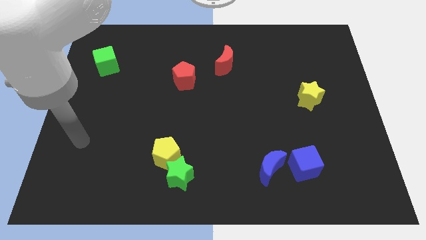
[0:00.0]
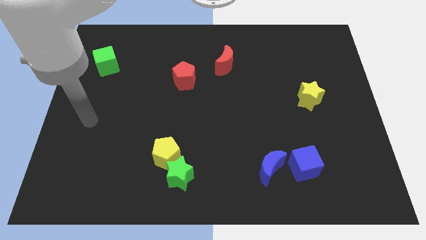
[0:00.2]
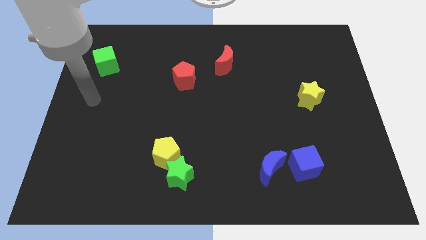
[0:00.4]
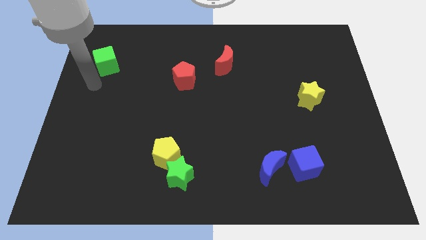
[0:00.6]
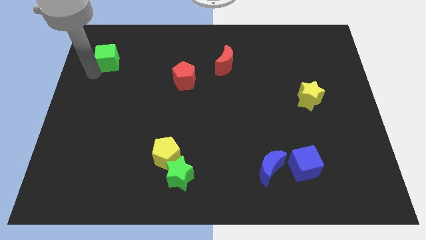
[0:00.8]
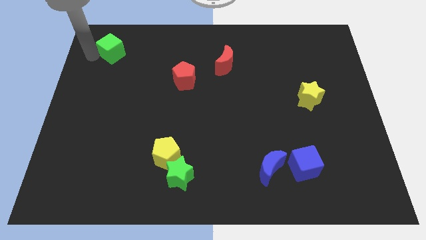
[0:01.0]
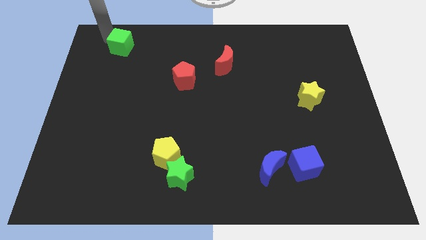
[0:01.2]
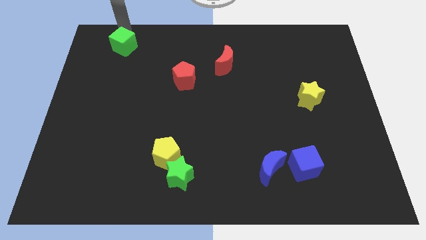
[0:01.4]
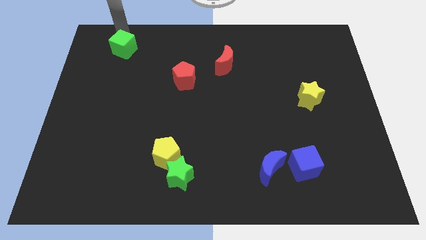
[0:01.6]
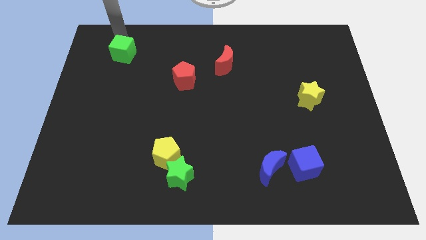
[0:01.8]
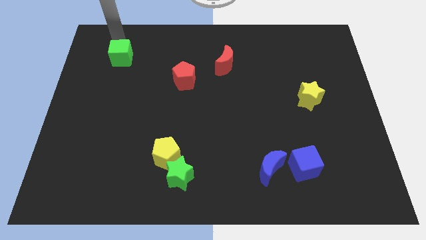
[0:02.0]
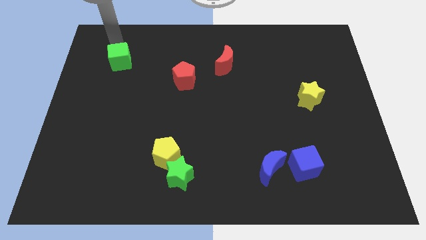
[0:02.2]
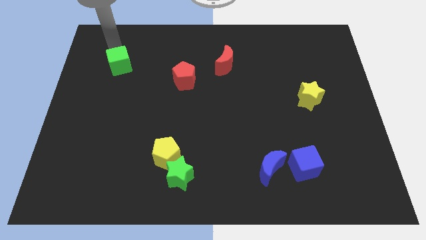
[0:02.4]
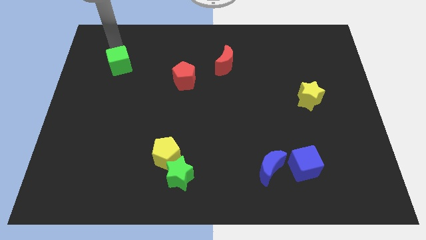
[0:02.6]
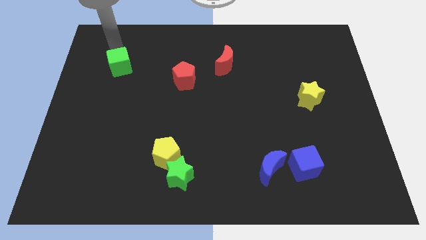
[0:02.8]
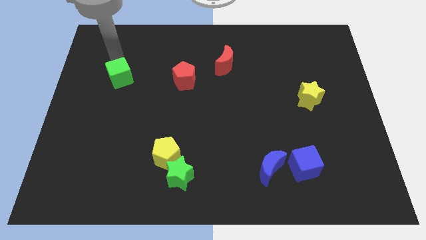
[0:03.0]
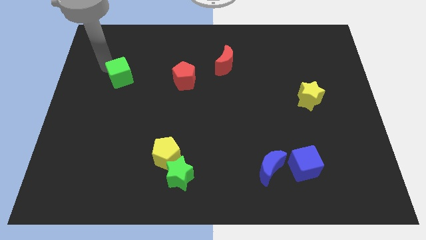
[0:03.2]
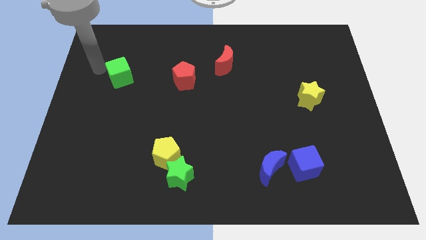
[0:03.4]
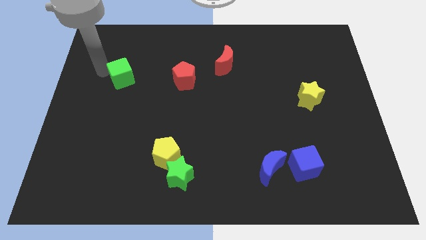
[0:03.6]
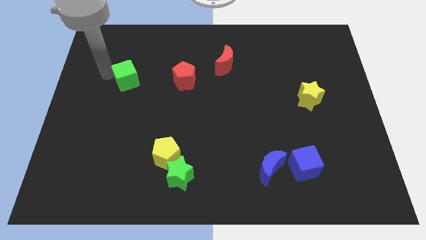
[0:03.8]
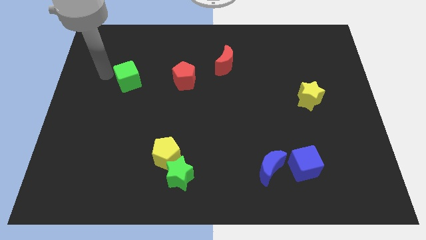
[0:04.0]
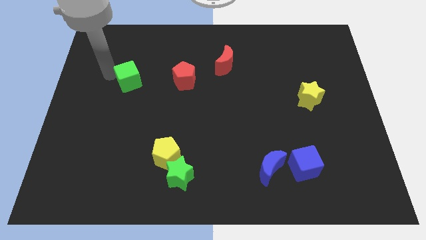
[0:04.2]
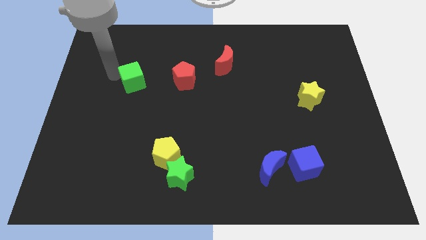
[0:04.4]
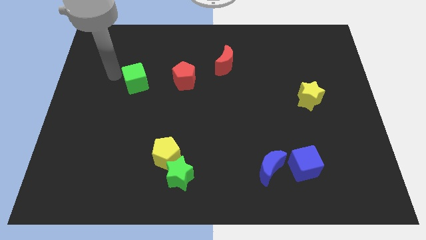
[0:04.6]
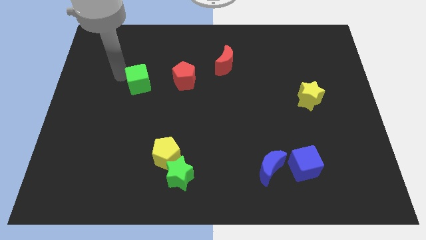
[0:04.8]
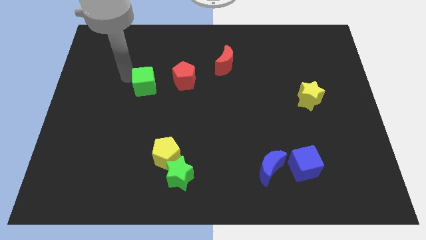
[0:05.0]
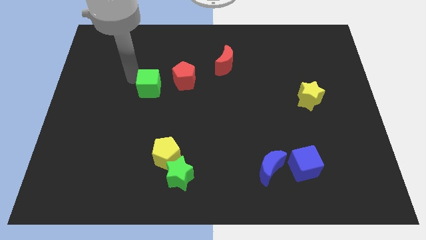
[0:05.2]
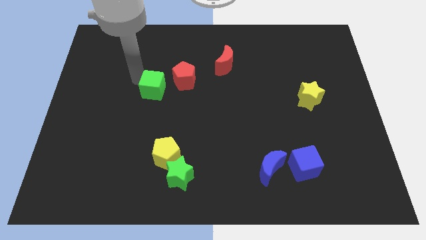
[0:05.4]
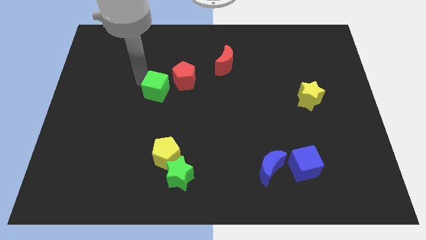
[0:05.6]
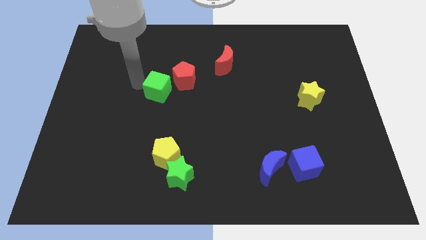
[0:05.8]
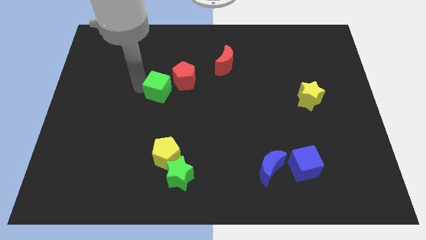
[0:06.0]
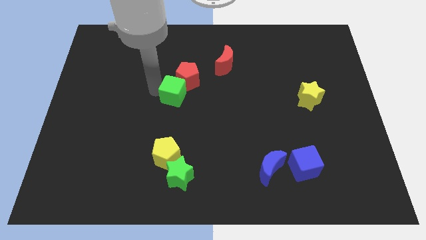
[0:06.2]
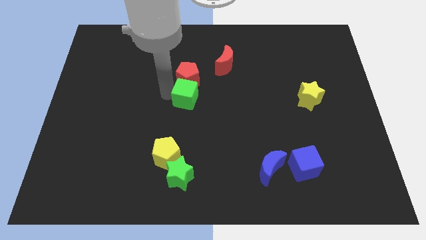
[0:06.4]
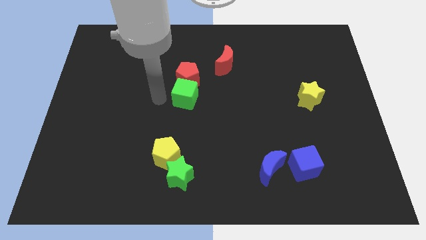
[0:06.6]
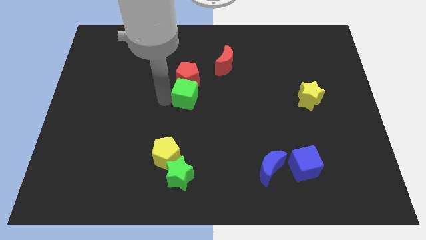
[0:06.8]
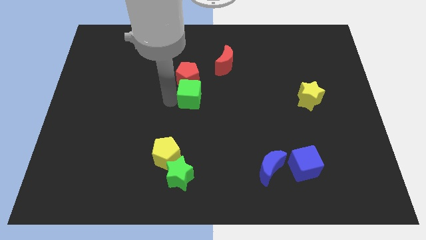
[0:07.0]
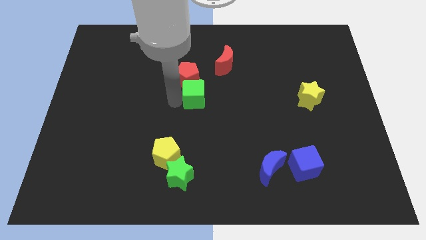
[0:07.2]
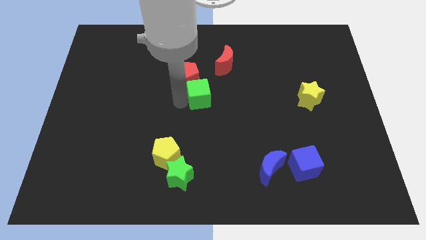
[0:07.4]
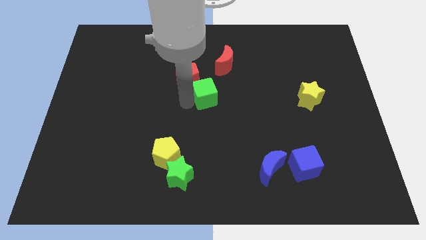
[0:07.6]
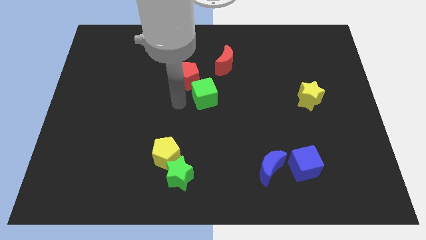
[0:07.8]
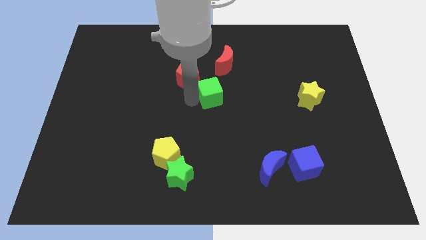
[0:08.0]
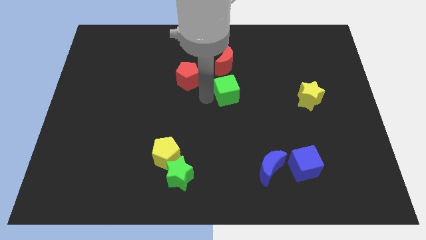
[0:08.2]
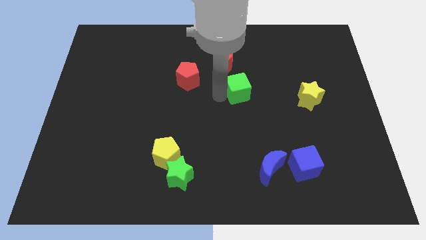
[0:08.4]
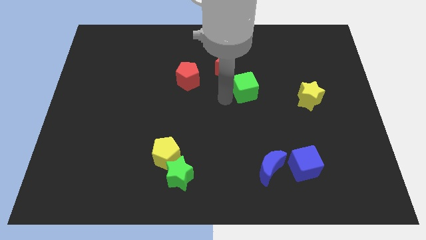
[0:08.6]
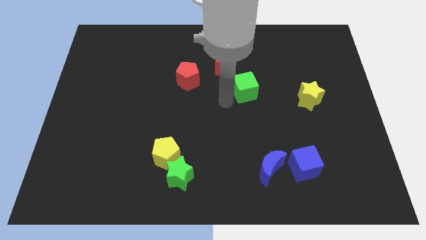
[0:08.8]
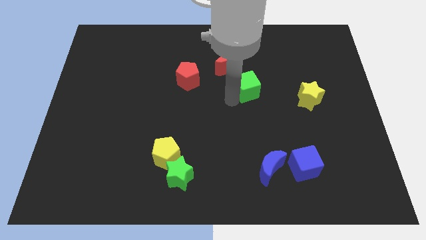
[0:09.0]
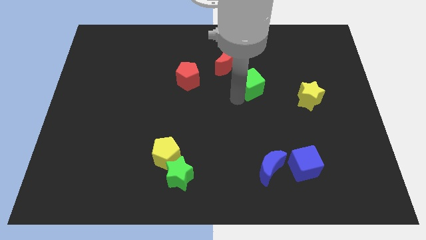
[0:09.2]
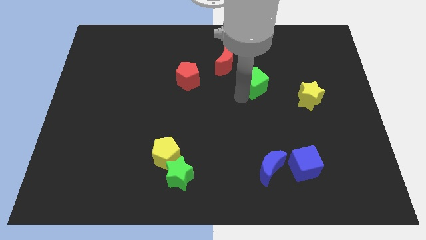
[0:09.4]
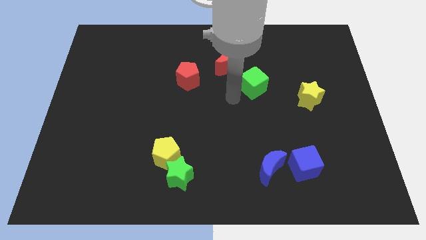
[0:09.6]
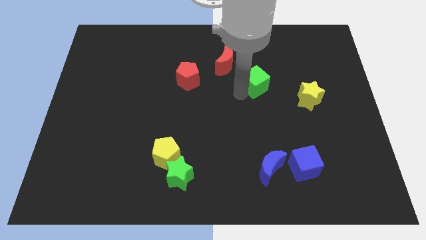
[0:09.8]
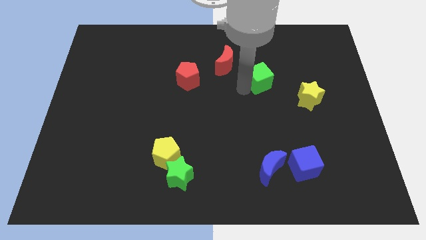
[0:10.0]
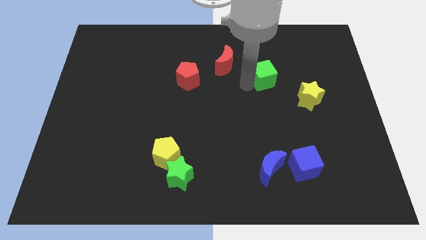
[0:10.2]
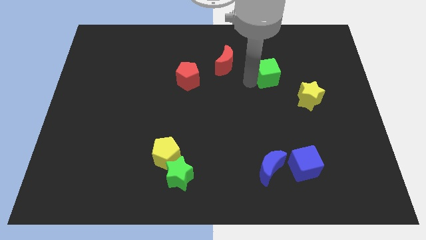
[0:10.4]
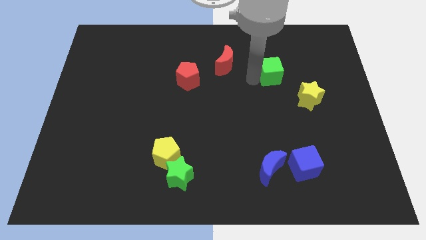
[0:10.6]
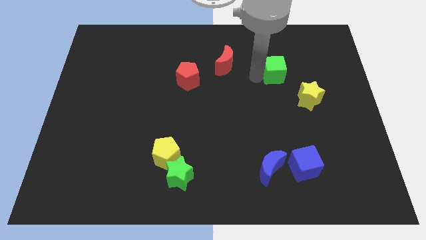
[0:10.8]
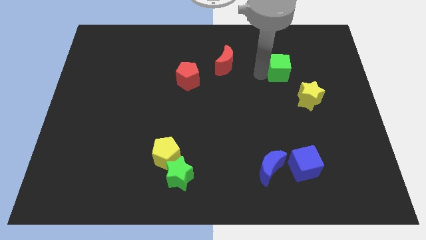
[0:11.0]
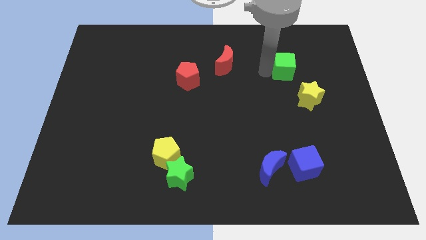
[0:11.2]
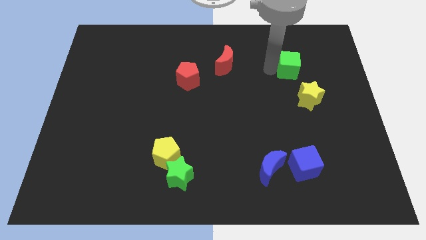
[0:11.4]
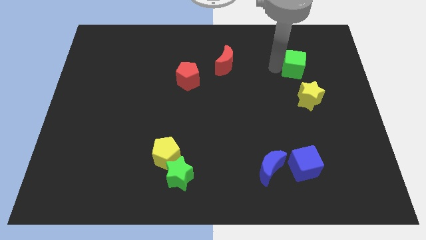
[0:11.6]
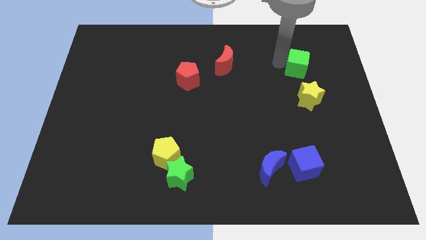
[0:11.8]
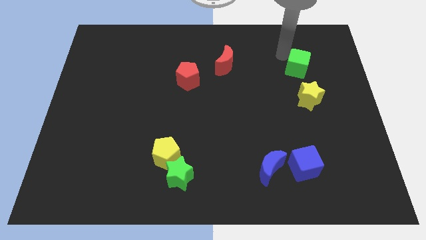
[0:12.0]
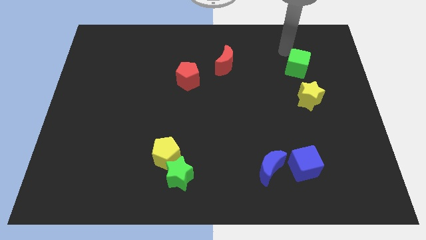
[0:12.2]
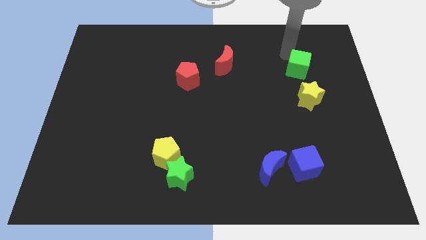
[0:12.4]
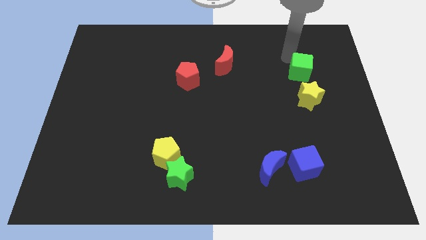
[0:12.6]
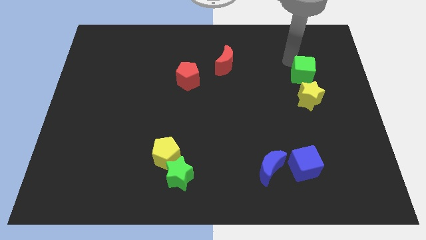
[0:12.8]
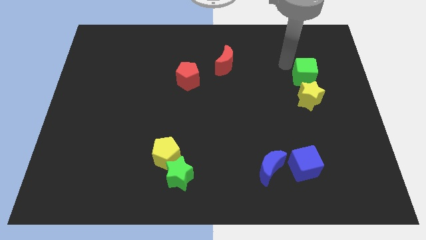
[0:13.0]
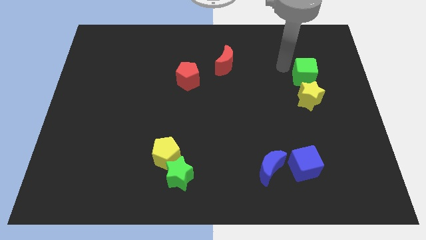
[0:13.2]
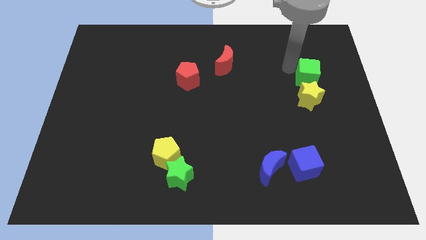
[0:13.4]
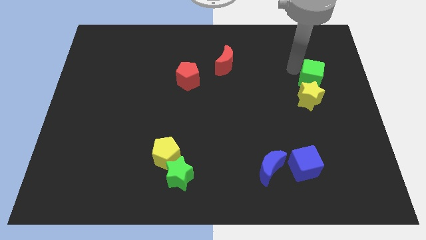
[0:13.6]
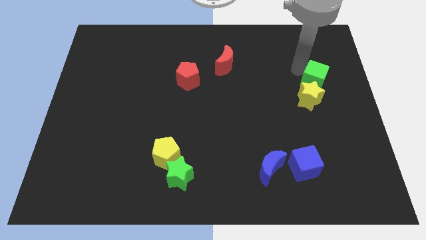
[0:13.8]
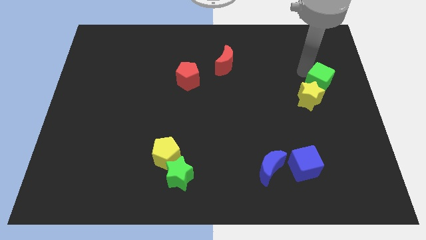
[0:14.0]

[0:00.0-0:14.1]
put the green cube to the right side
